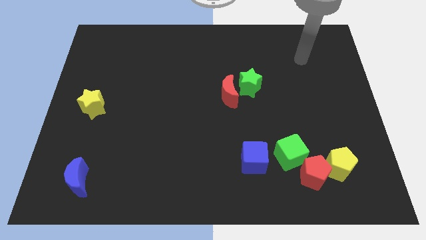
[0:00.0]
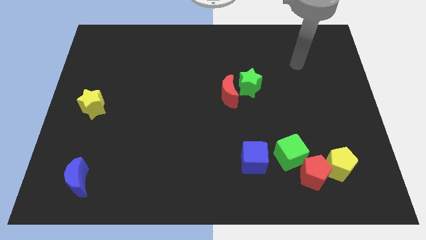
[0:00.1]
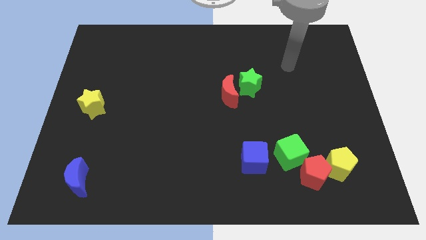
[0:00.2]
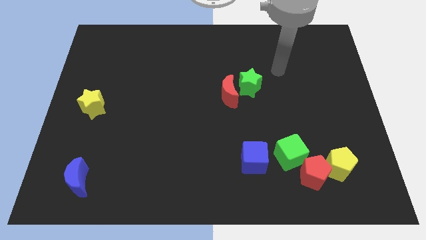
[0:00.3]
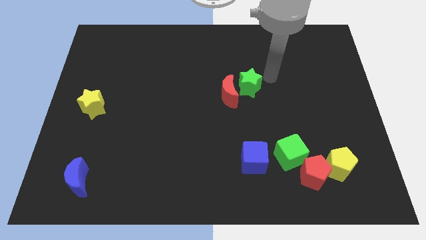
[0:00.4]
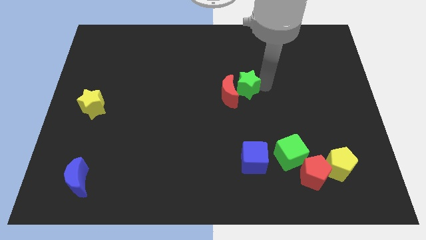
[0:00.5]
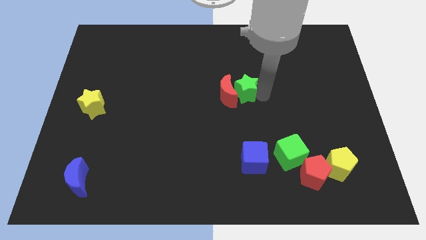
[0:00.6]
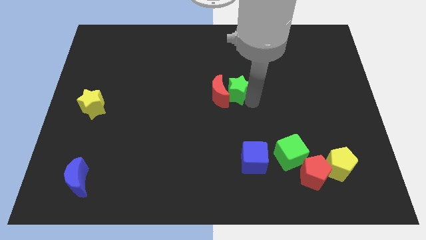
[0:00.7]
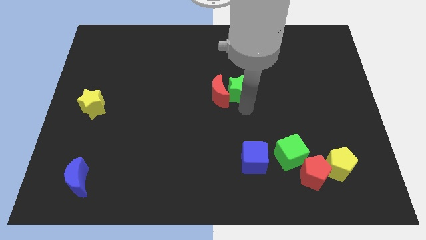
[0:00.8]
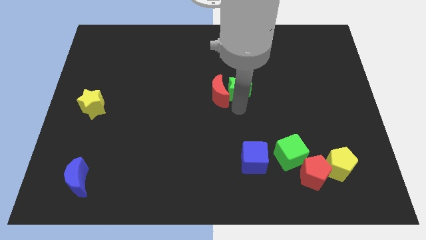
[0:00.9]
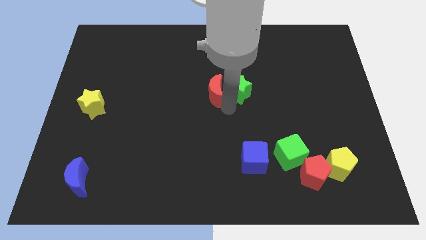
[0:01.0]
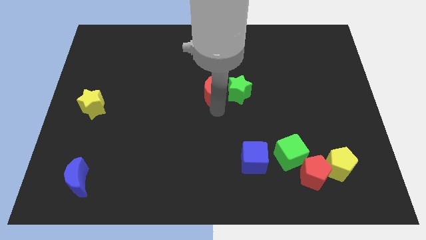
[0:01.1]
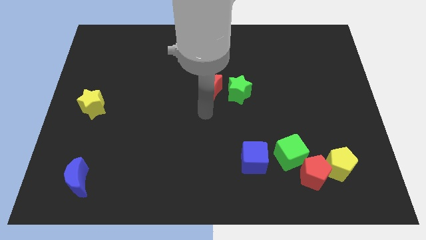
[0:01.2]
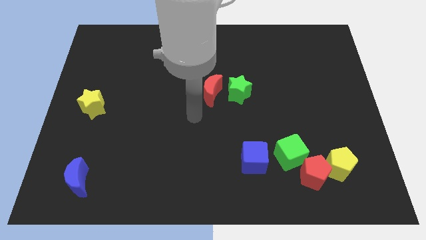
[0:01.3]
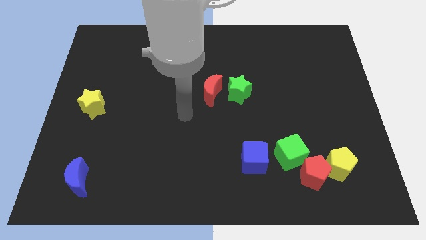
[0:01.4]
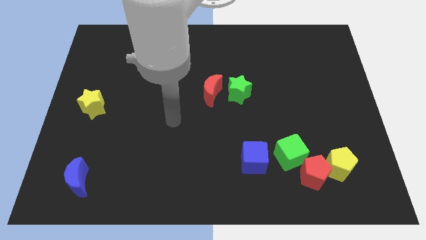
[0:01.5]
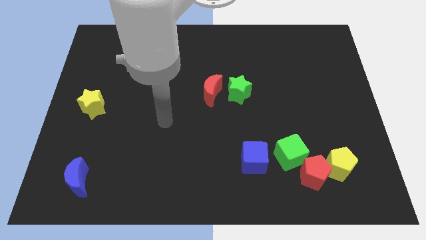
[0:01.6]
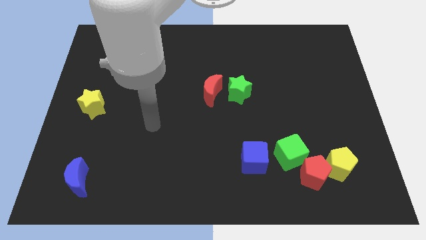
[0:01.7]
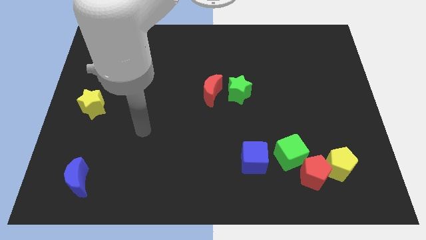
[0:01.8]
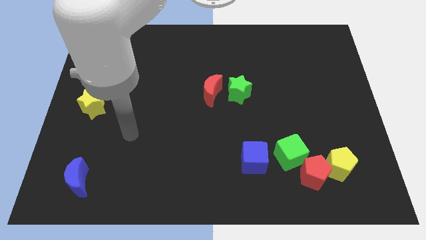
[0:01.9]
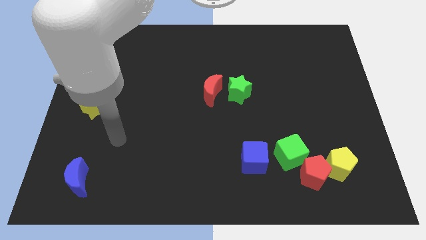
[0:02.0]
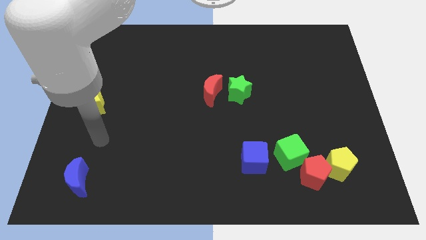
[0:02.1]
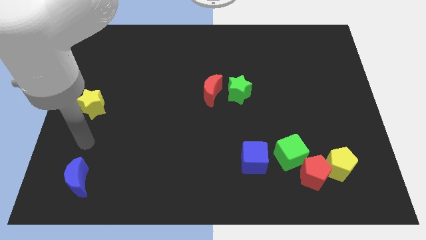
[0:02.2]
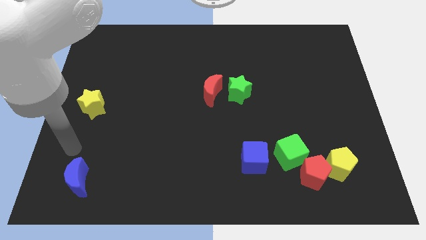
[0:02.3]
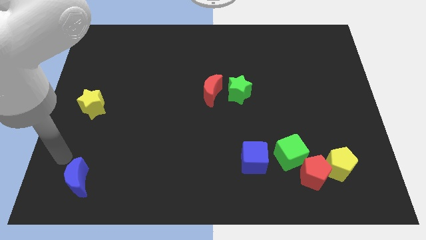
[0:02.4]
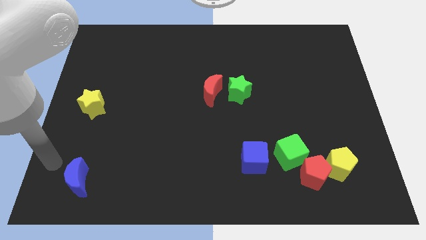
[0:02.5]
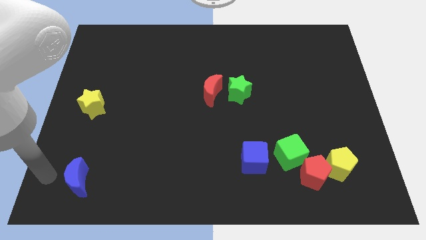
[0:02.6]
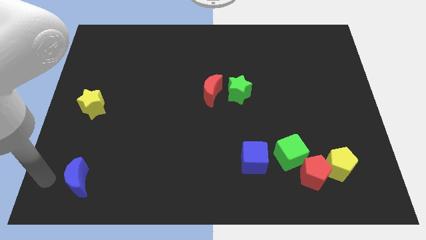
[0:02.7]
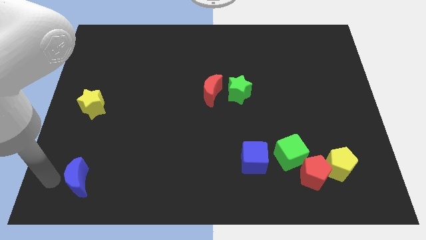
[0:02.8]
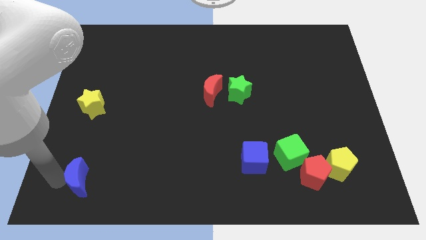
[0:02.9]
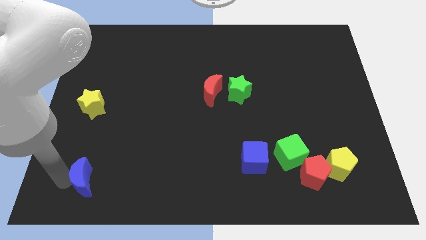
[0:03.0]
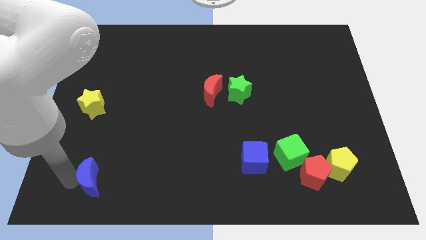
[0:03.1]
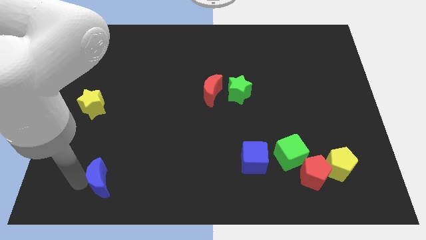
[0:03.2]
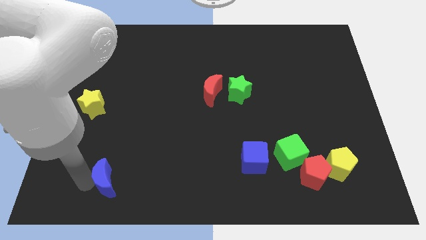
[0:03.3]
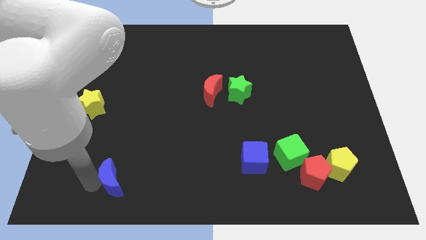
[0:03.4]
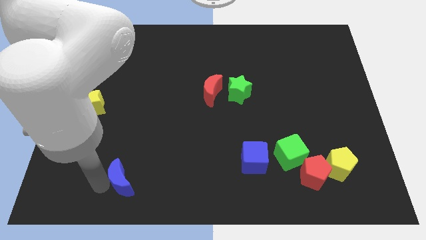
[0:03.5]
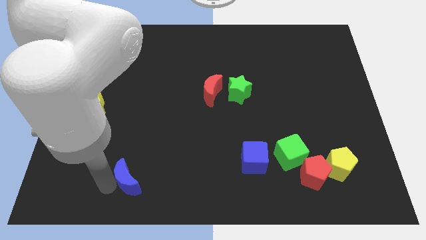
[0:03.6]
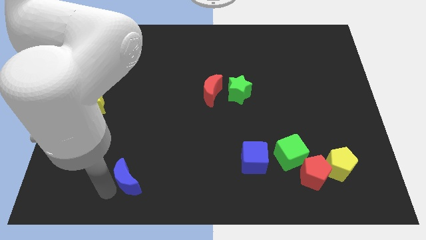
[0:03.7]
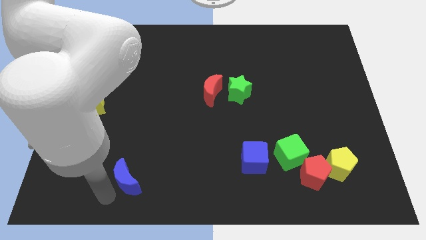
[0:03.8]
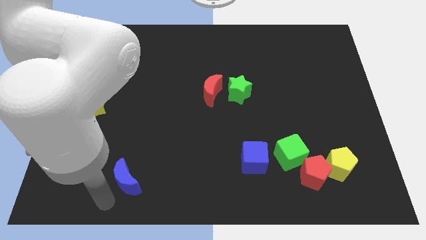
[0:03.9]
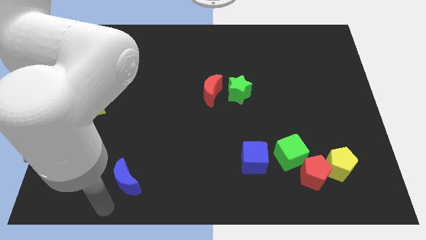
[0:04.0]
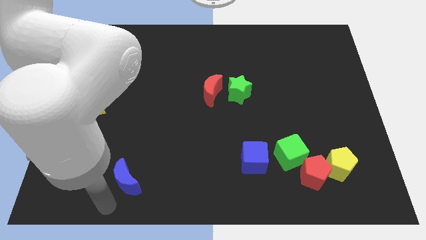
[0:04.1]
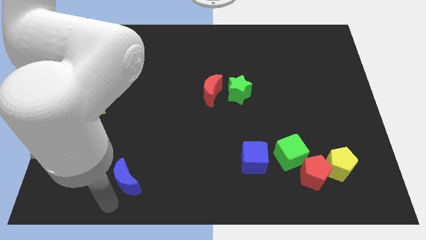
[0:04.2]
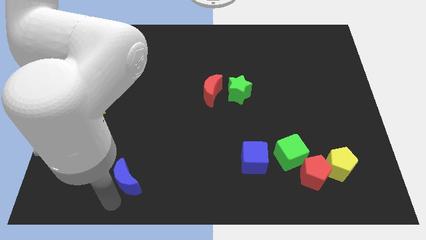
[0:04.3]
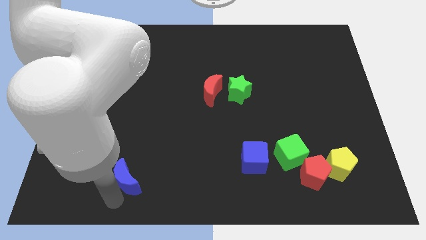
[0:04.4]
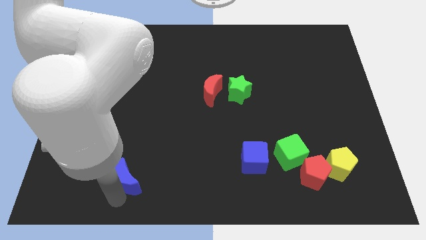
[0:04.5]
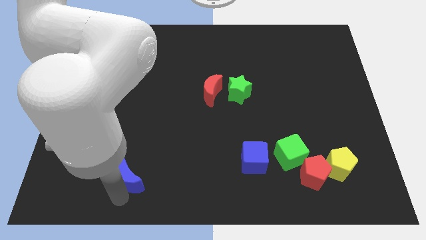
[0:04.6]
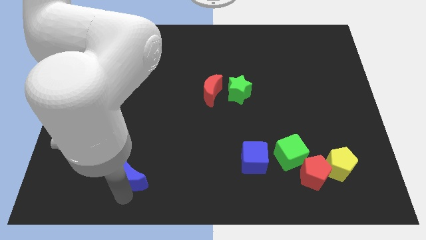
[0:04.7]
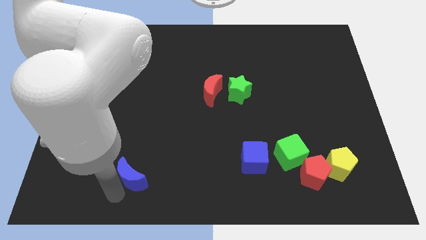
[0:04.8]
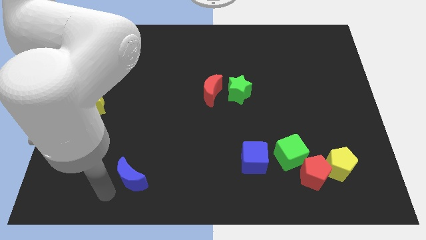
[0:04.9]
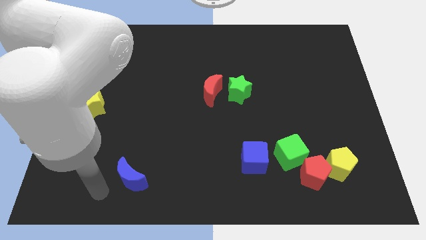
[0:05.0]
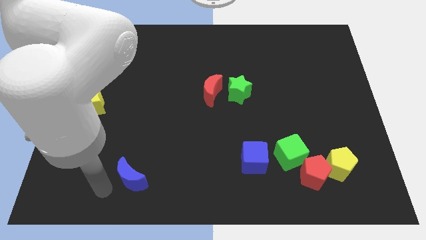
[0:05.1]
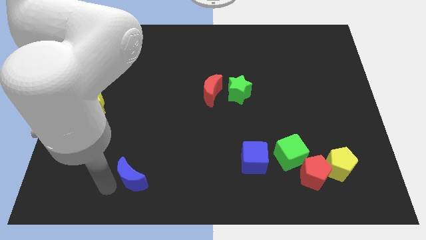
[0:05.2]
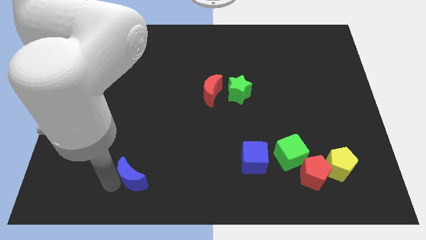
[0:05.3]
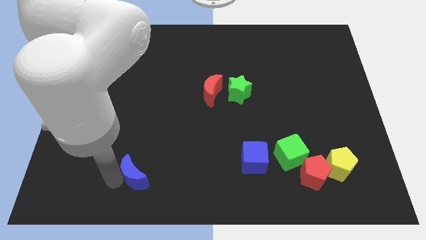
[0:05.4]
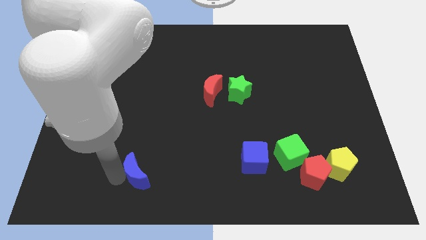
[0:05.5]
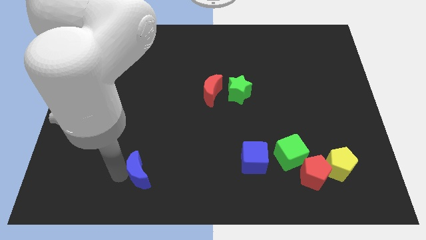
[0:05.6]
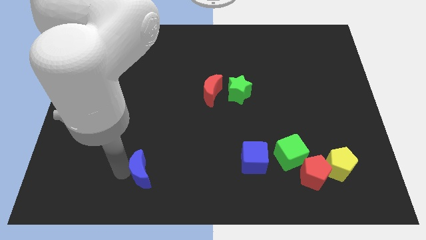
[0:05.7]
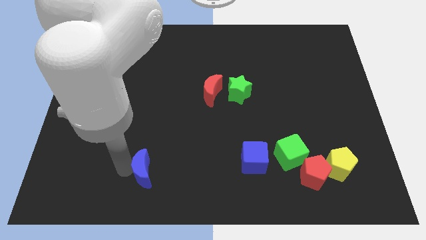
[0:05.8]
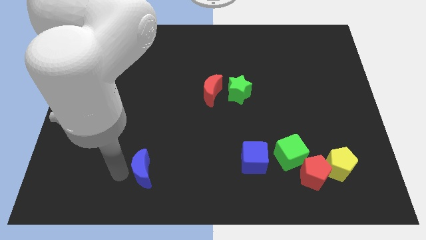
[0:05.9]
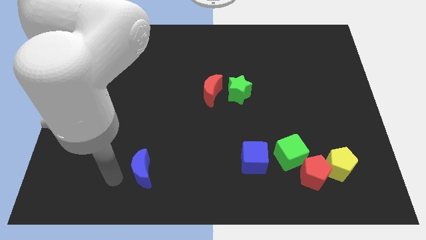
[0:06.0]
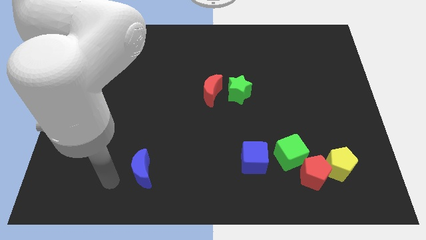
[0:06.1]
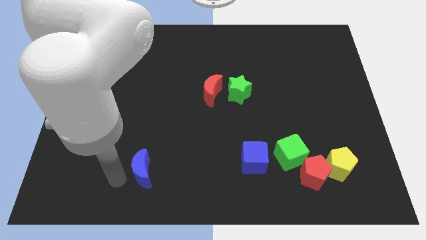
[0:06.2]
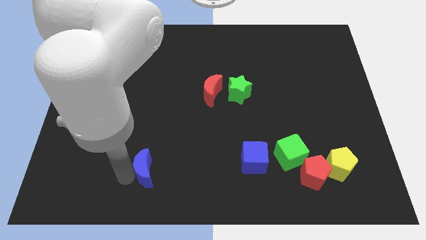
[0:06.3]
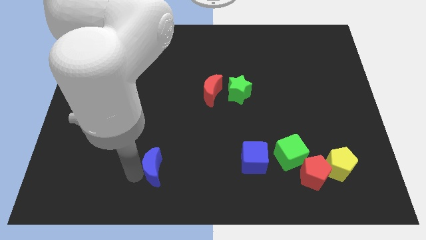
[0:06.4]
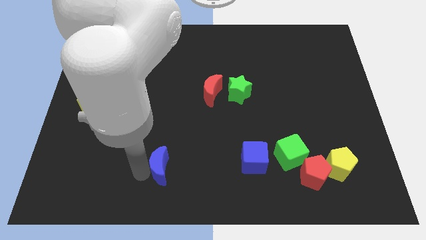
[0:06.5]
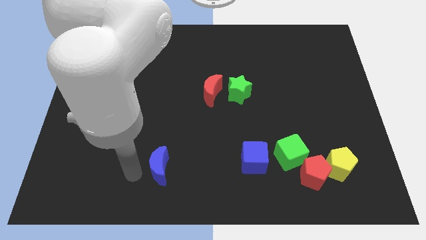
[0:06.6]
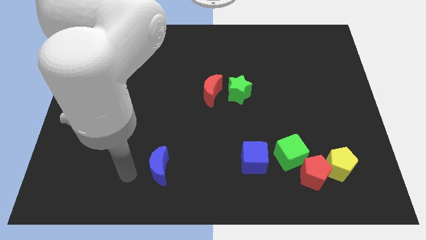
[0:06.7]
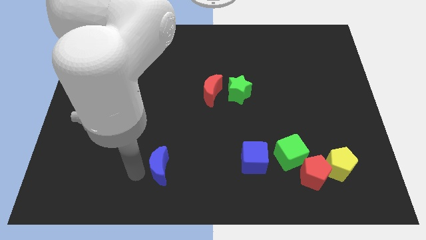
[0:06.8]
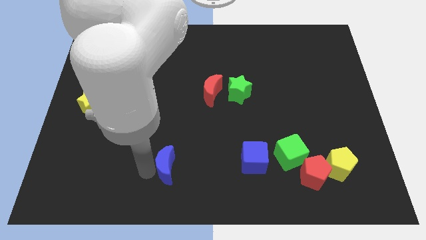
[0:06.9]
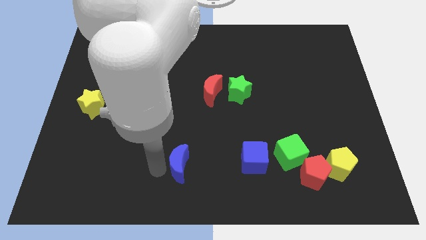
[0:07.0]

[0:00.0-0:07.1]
push the blue moon just left of the blue cube
